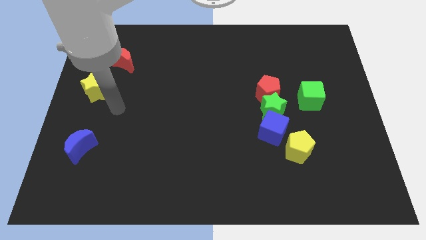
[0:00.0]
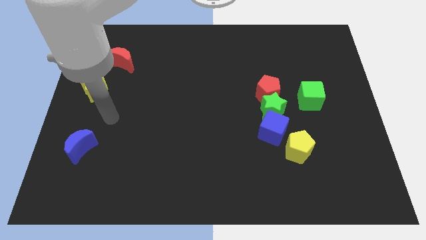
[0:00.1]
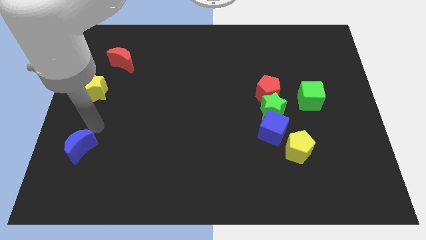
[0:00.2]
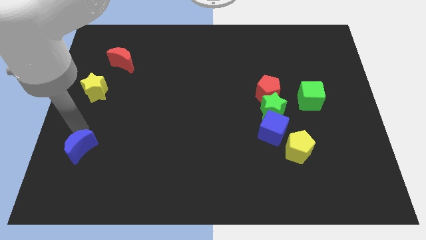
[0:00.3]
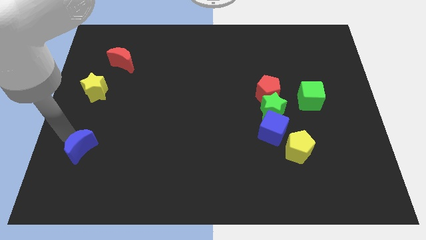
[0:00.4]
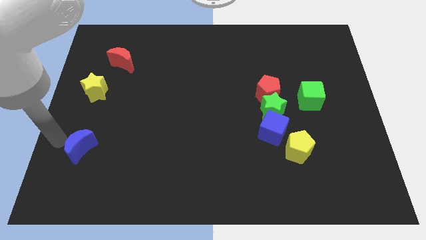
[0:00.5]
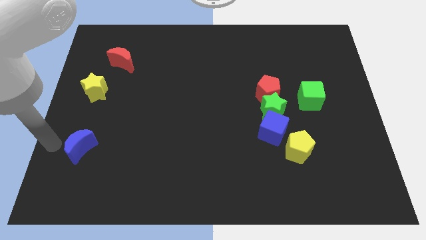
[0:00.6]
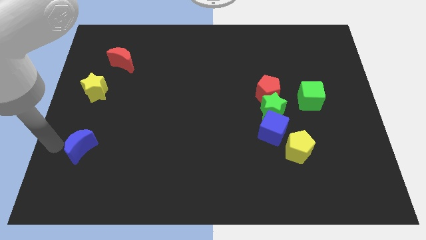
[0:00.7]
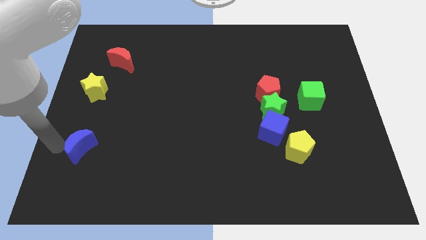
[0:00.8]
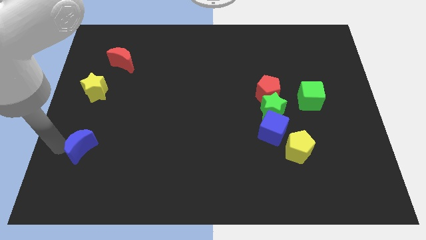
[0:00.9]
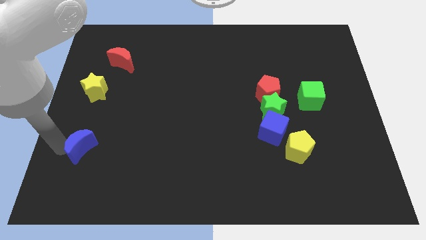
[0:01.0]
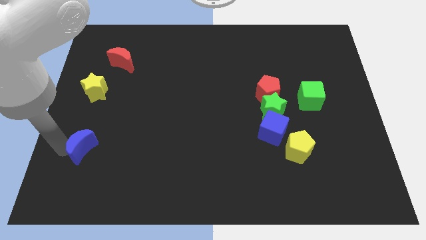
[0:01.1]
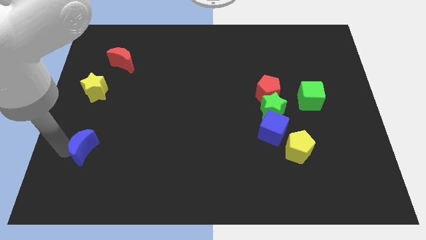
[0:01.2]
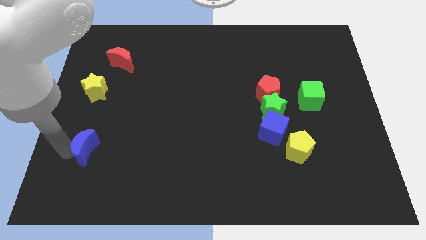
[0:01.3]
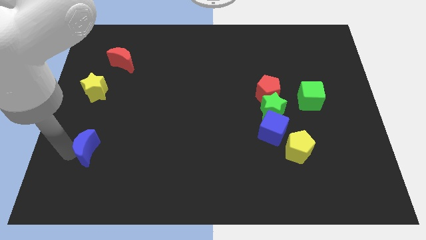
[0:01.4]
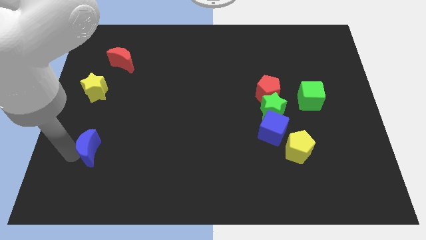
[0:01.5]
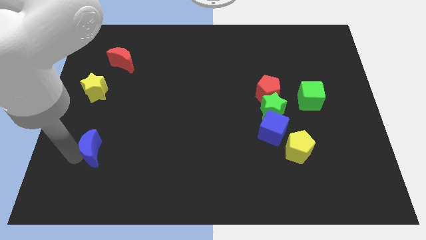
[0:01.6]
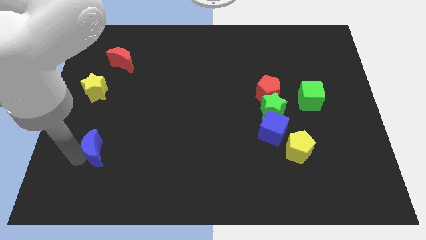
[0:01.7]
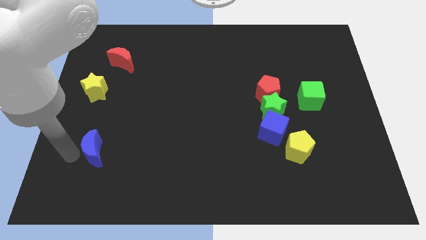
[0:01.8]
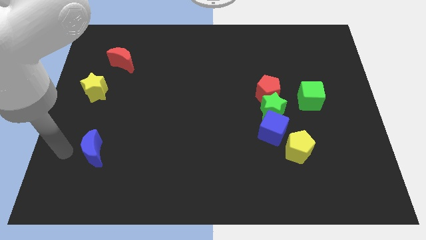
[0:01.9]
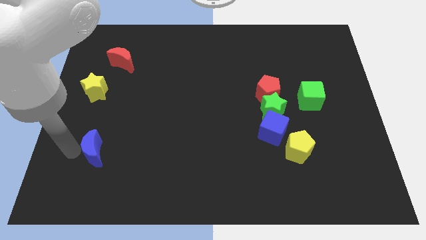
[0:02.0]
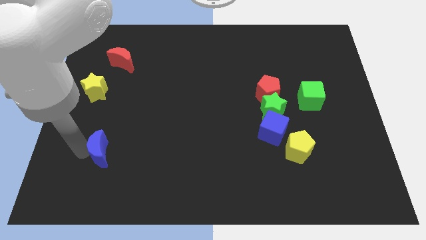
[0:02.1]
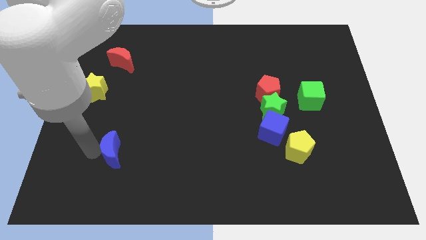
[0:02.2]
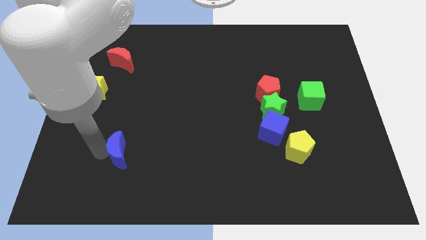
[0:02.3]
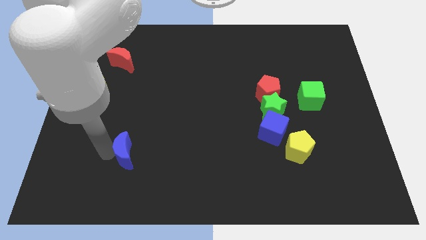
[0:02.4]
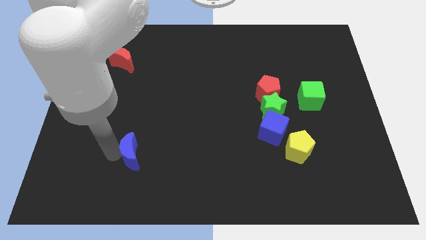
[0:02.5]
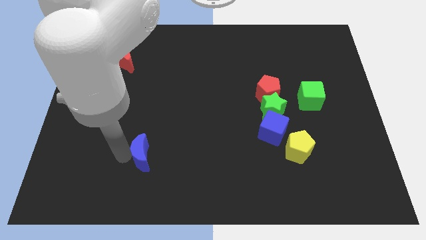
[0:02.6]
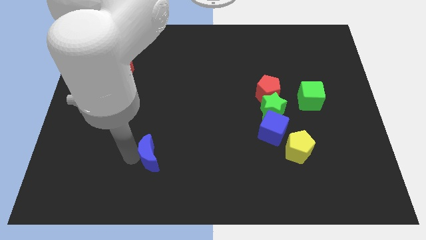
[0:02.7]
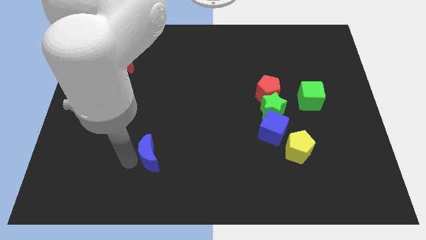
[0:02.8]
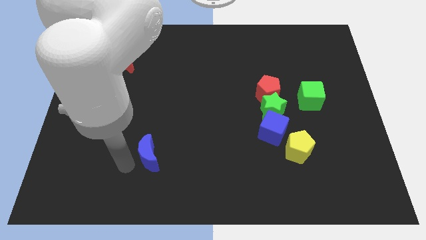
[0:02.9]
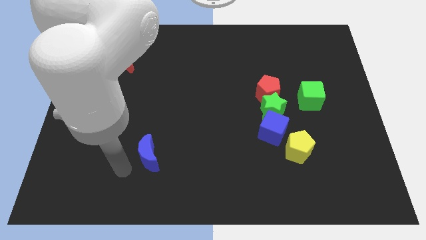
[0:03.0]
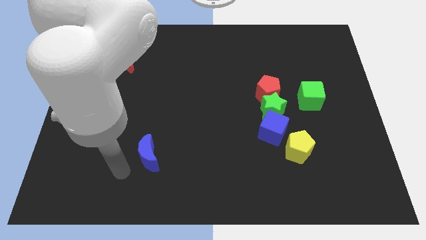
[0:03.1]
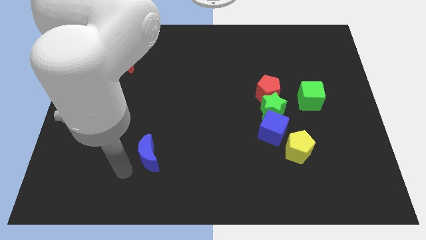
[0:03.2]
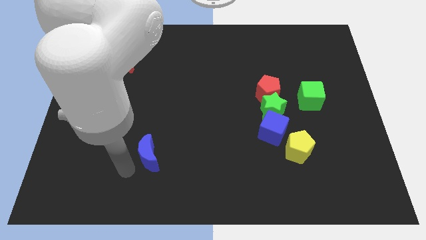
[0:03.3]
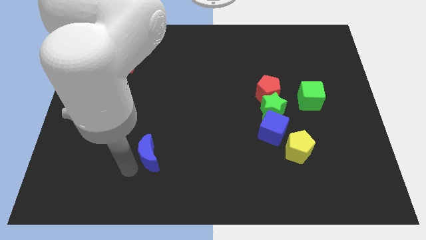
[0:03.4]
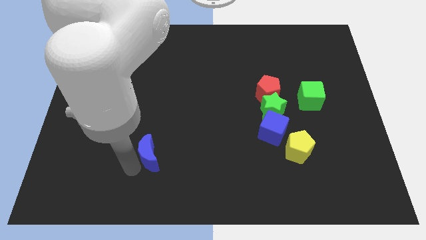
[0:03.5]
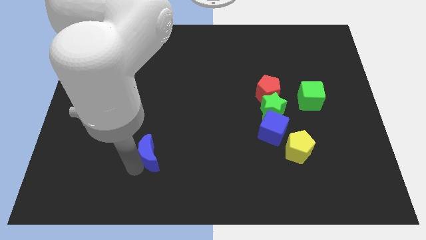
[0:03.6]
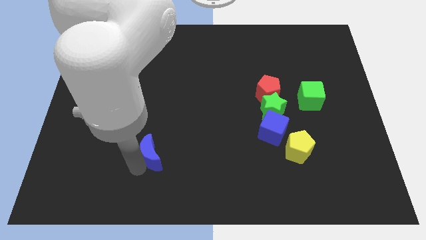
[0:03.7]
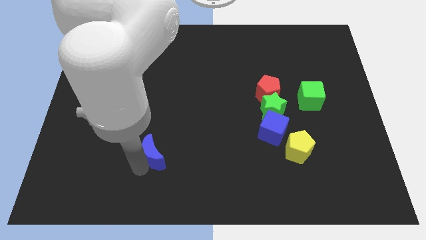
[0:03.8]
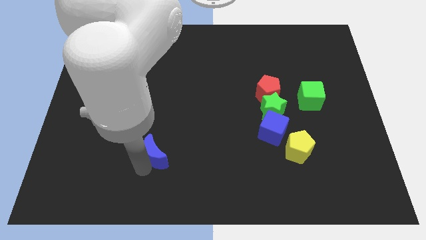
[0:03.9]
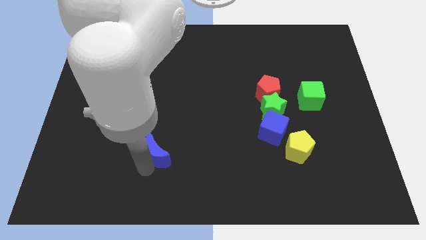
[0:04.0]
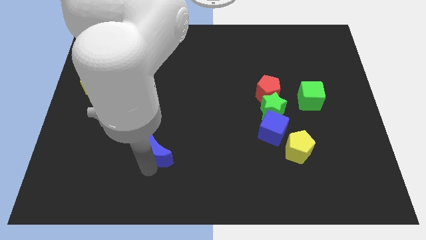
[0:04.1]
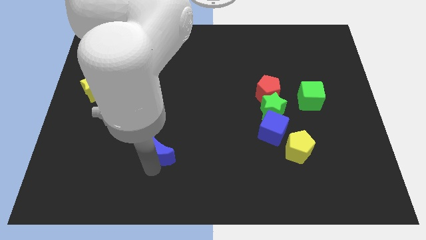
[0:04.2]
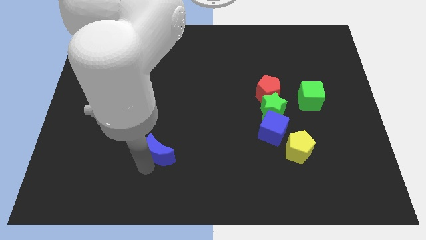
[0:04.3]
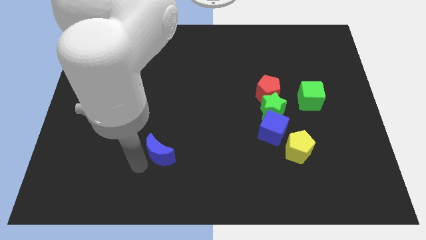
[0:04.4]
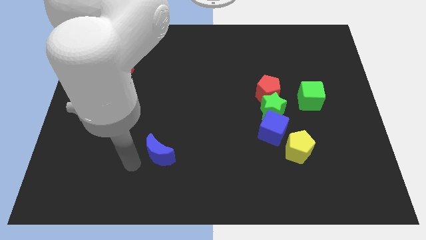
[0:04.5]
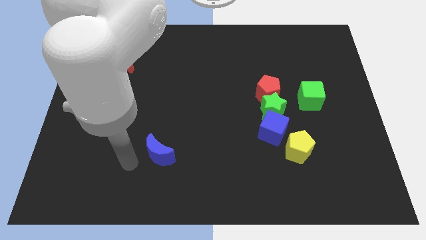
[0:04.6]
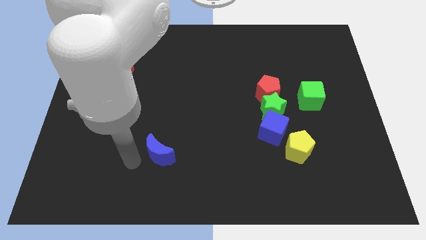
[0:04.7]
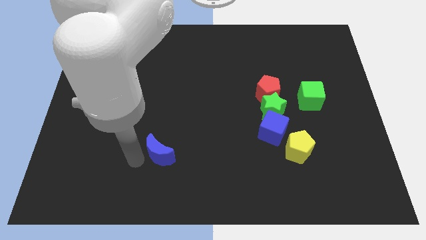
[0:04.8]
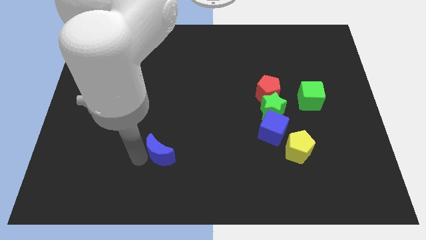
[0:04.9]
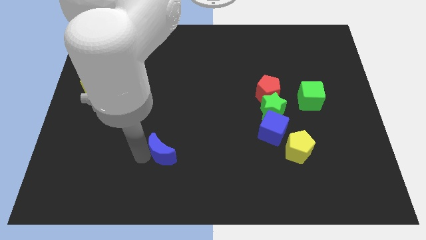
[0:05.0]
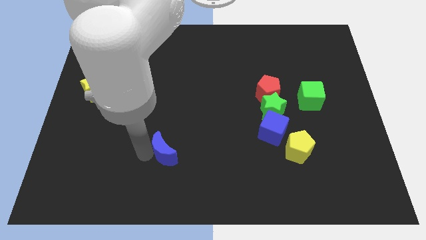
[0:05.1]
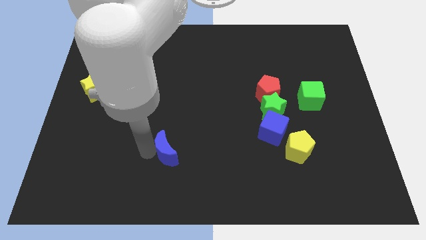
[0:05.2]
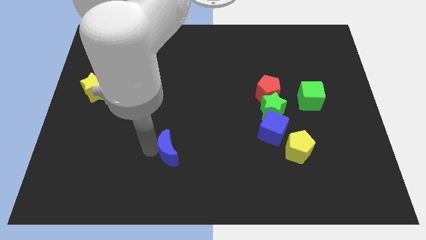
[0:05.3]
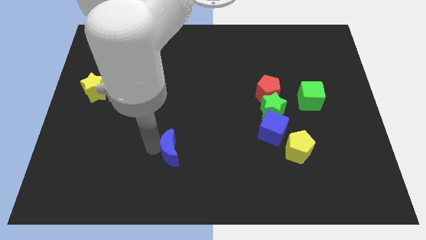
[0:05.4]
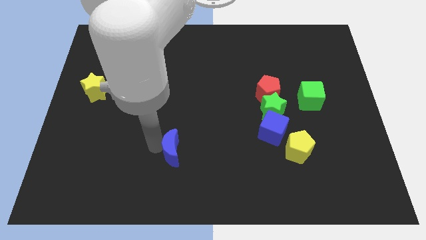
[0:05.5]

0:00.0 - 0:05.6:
push the blue moon right

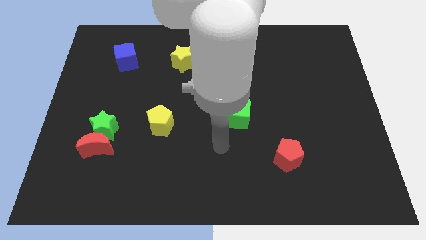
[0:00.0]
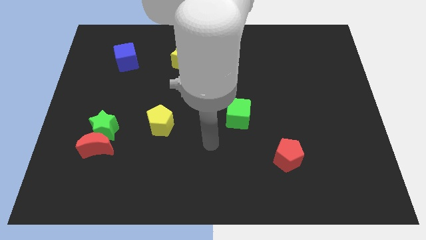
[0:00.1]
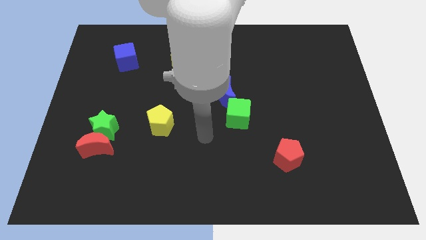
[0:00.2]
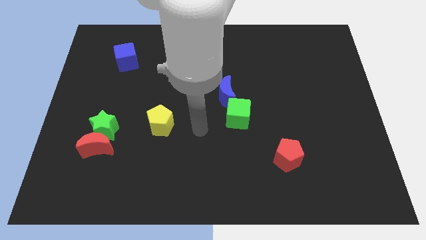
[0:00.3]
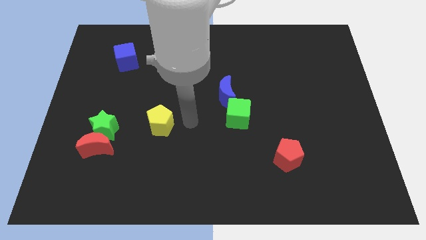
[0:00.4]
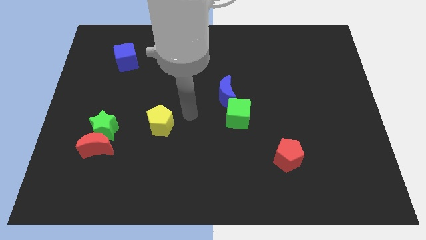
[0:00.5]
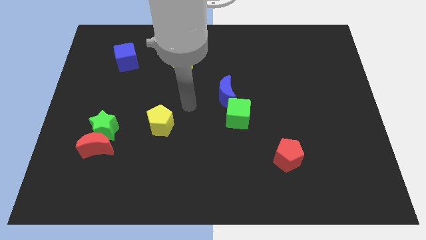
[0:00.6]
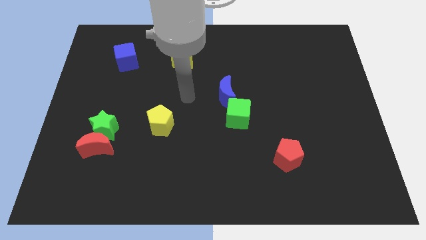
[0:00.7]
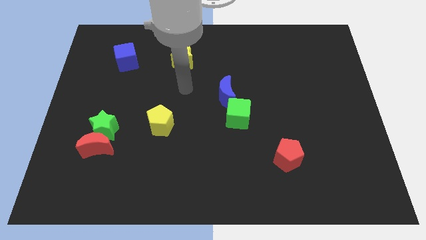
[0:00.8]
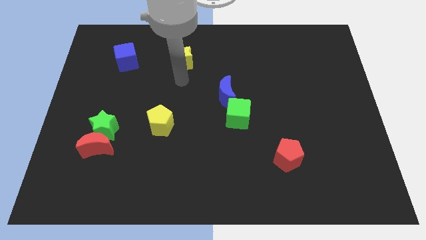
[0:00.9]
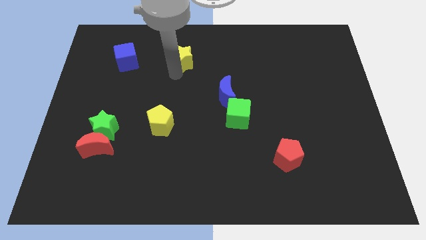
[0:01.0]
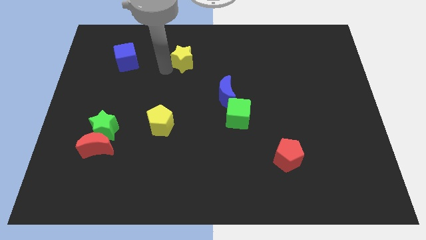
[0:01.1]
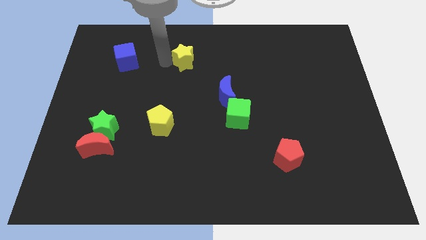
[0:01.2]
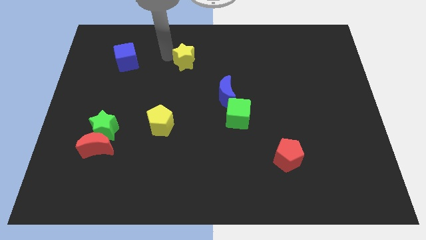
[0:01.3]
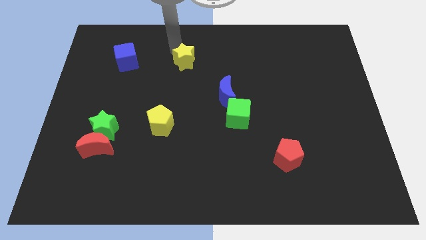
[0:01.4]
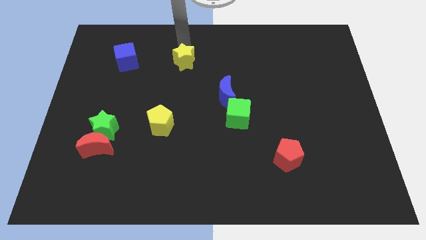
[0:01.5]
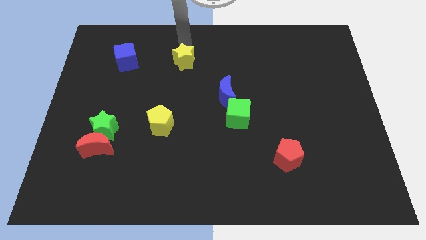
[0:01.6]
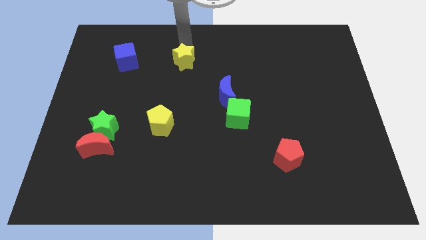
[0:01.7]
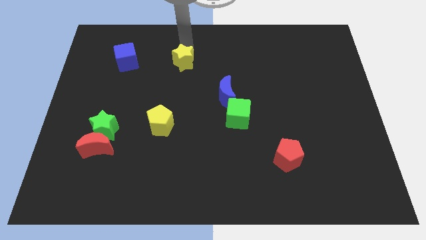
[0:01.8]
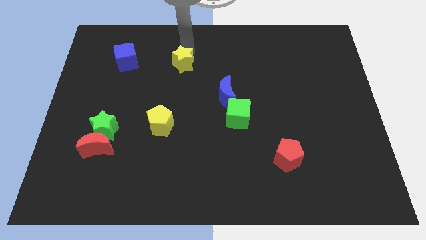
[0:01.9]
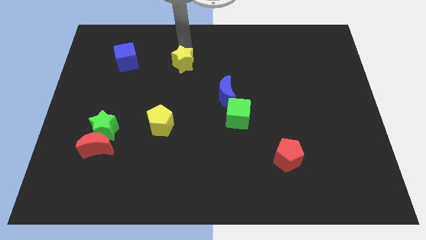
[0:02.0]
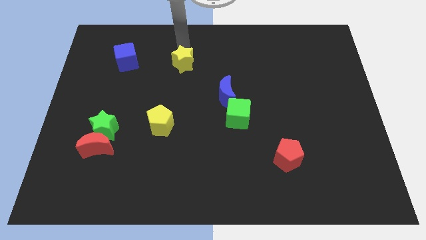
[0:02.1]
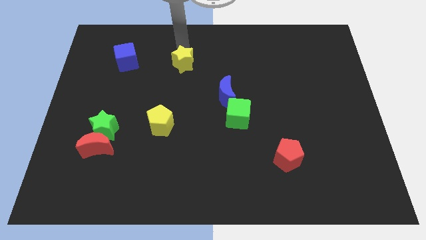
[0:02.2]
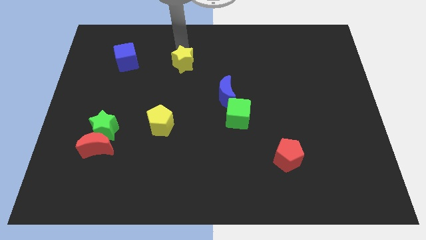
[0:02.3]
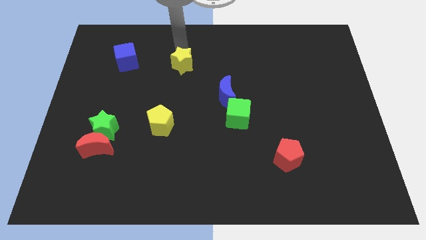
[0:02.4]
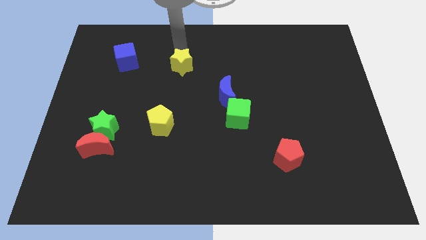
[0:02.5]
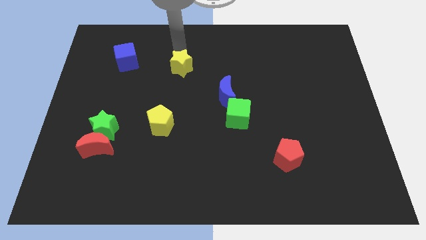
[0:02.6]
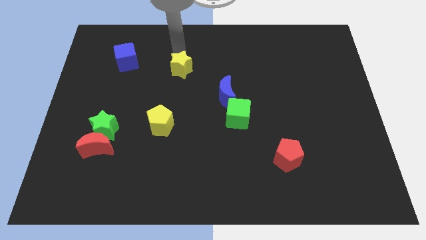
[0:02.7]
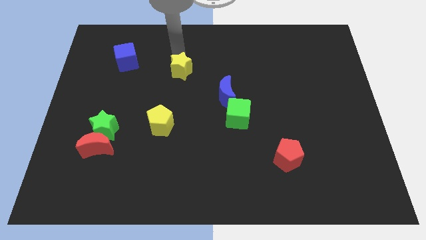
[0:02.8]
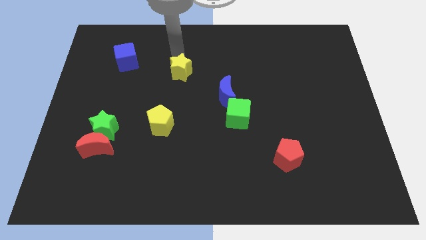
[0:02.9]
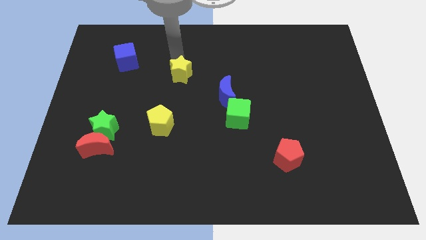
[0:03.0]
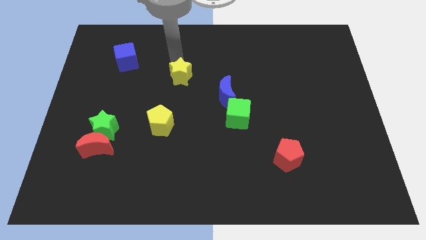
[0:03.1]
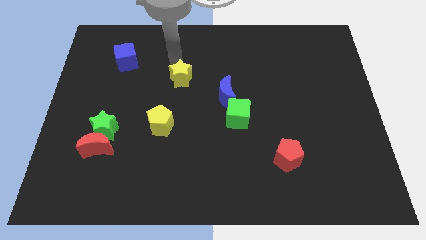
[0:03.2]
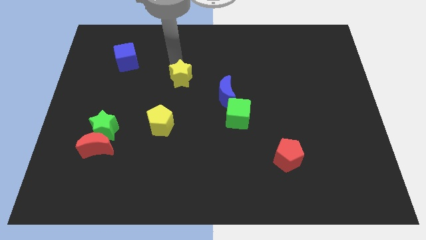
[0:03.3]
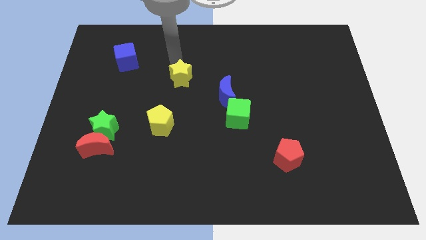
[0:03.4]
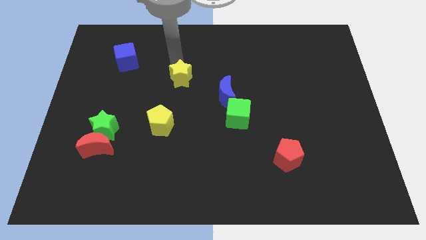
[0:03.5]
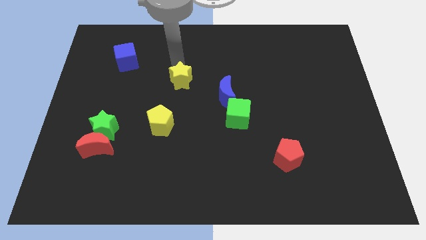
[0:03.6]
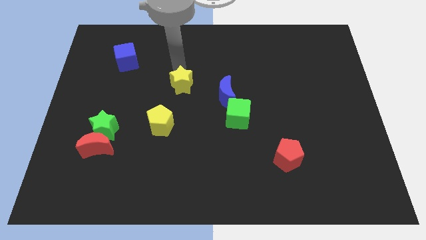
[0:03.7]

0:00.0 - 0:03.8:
move the yellow star downwards a bit
